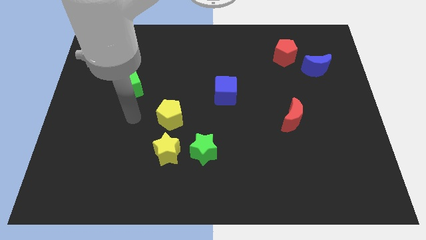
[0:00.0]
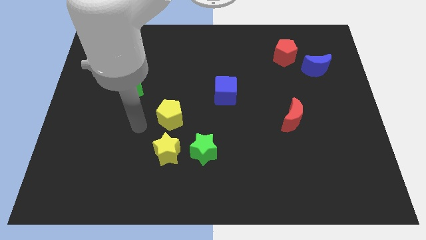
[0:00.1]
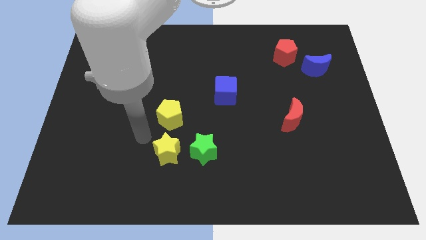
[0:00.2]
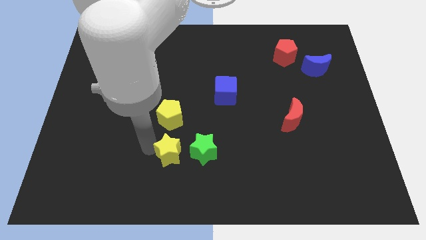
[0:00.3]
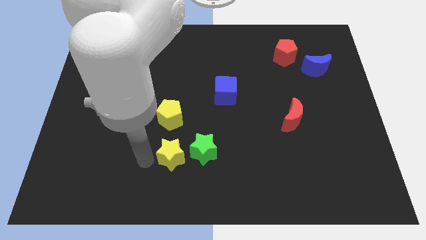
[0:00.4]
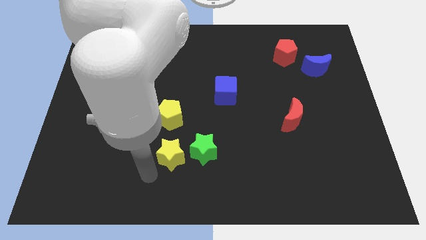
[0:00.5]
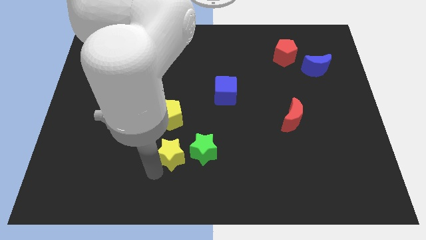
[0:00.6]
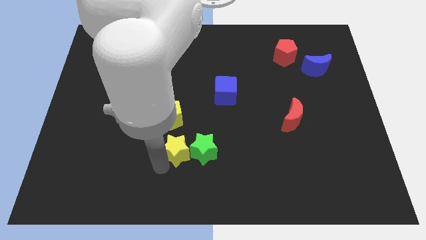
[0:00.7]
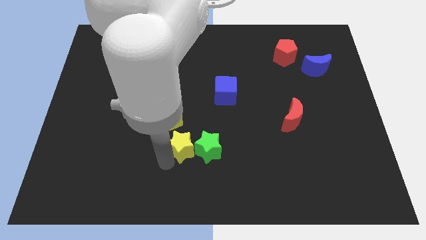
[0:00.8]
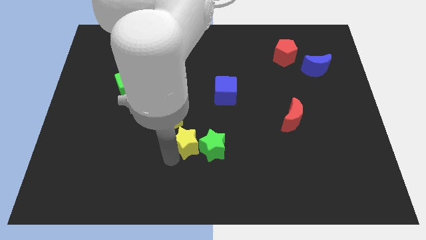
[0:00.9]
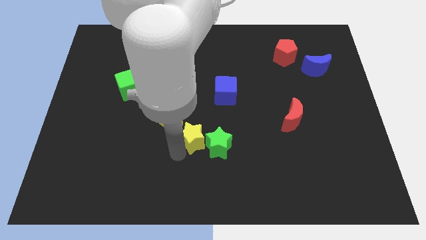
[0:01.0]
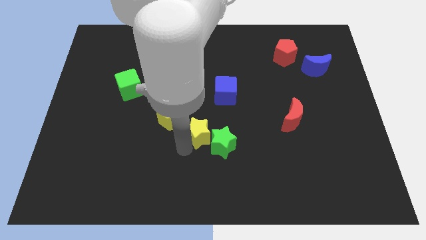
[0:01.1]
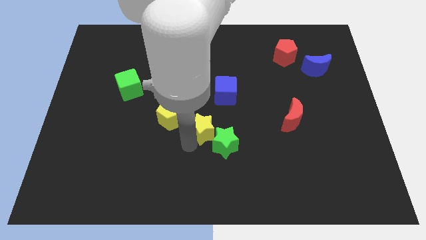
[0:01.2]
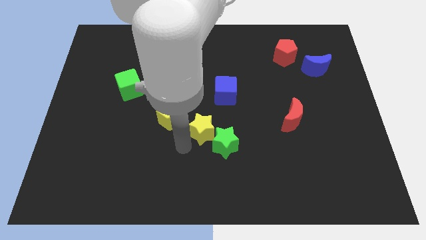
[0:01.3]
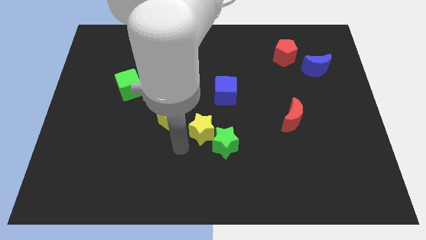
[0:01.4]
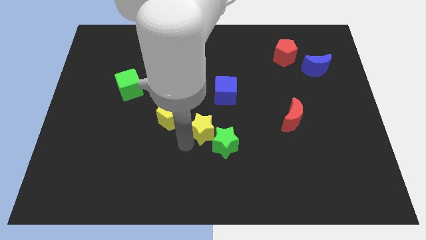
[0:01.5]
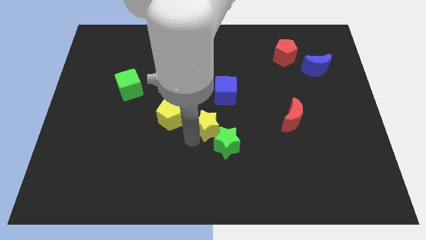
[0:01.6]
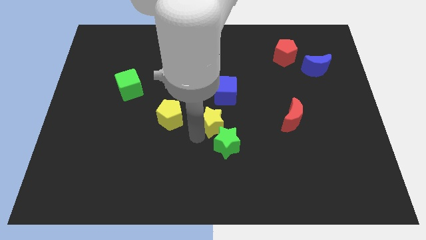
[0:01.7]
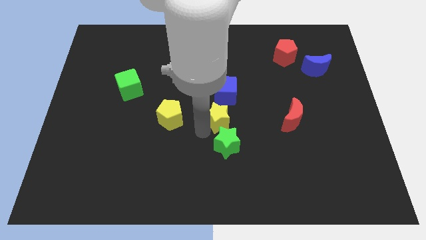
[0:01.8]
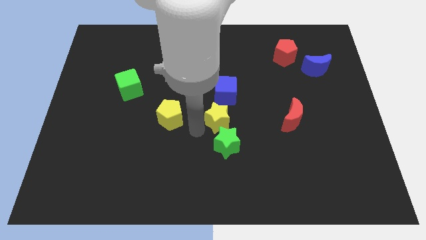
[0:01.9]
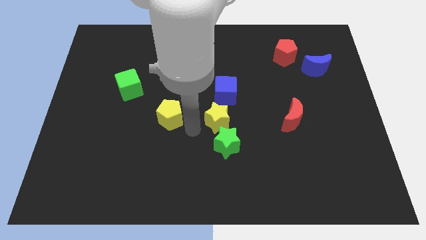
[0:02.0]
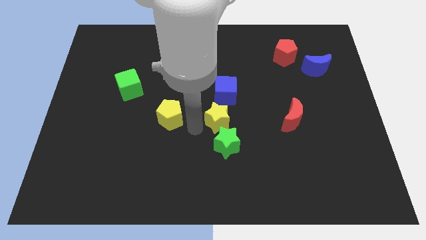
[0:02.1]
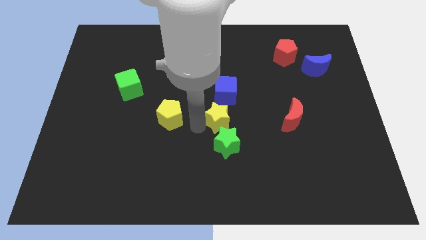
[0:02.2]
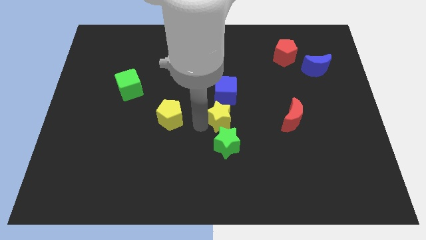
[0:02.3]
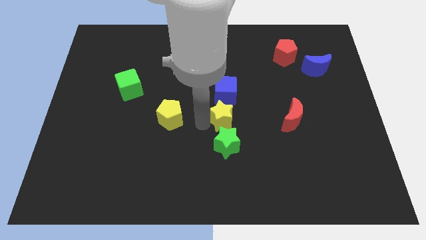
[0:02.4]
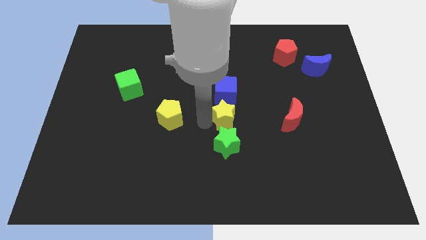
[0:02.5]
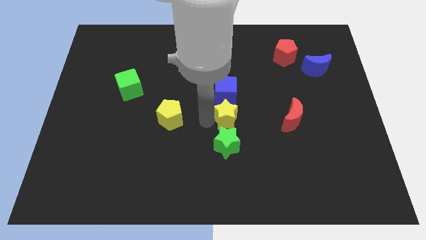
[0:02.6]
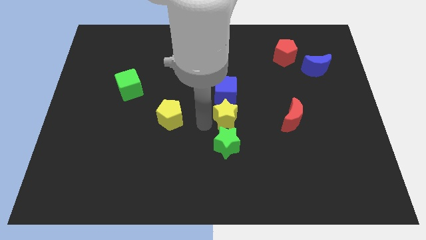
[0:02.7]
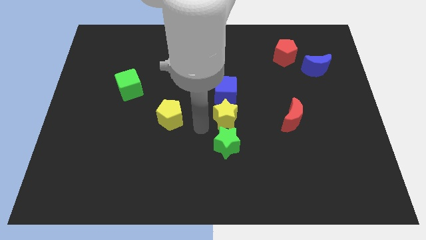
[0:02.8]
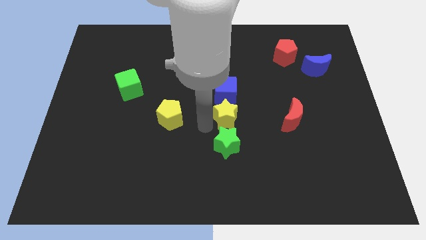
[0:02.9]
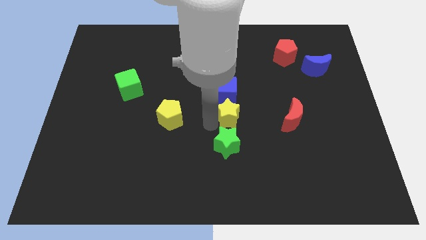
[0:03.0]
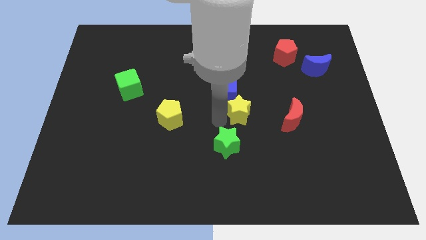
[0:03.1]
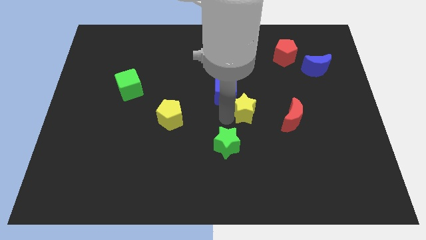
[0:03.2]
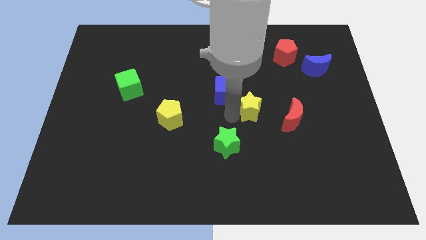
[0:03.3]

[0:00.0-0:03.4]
push the yellow star diagonally up and to the right

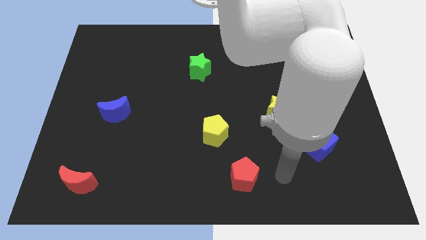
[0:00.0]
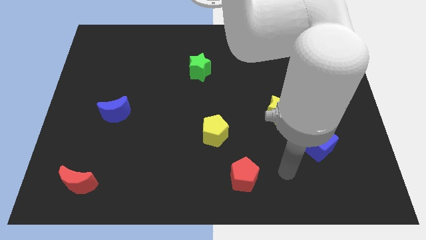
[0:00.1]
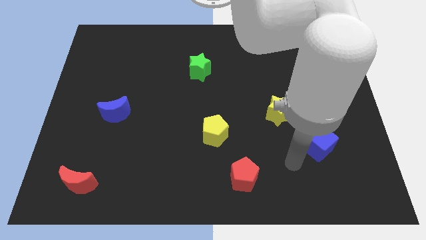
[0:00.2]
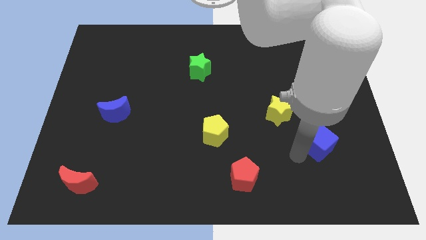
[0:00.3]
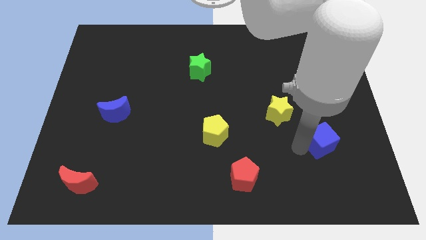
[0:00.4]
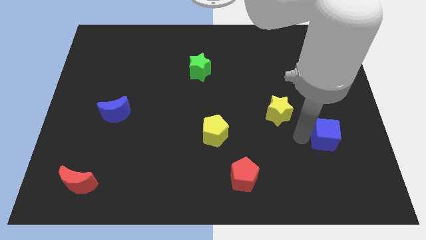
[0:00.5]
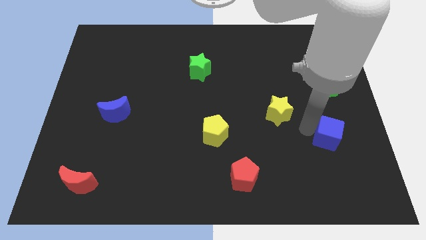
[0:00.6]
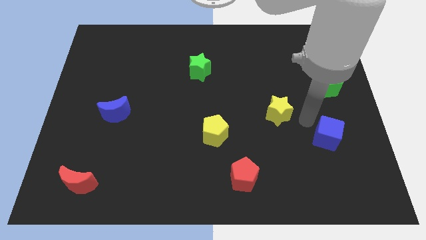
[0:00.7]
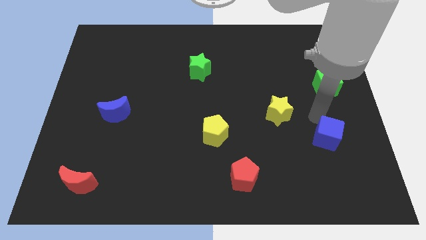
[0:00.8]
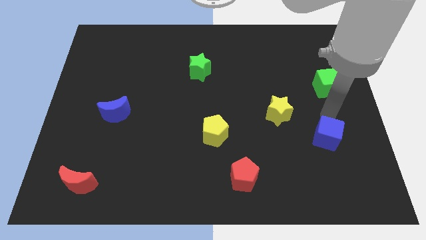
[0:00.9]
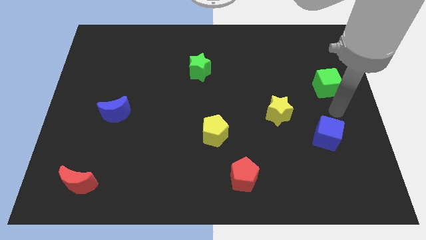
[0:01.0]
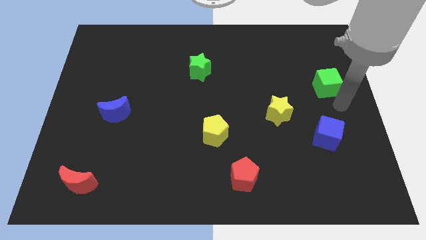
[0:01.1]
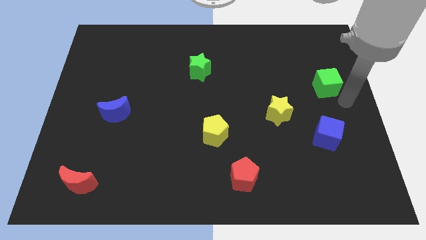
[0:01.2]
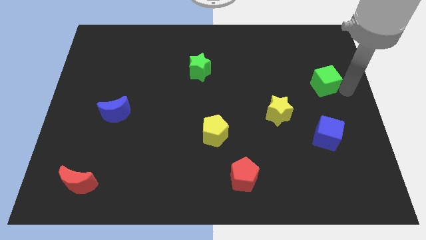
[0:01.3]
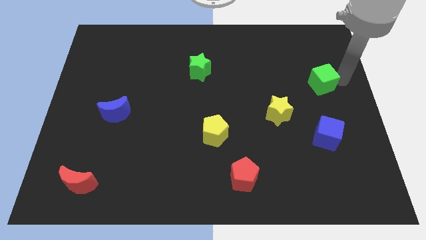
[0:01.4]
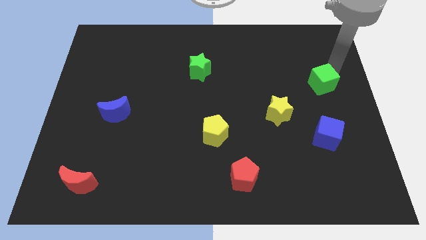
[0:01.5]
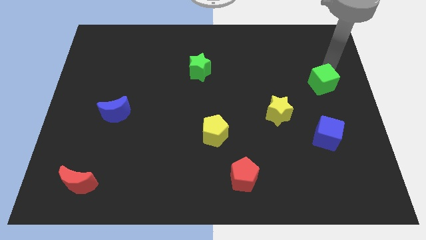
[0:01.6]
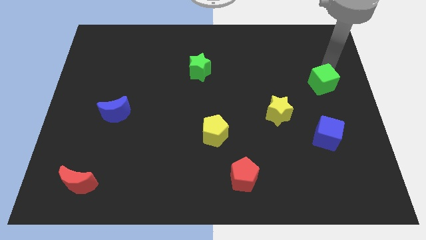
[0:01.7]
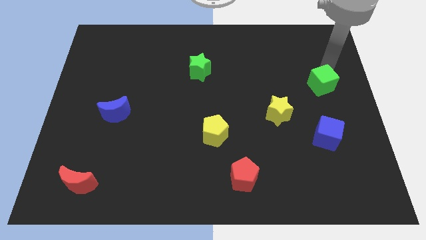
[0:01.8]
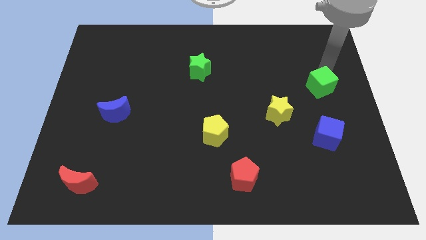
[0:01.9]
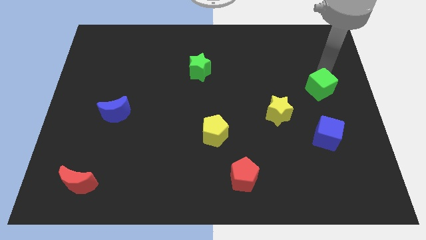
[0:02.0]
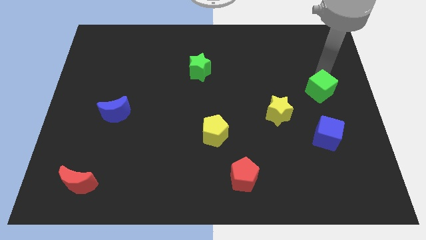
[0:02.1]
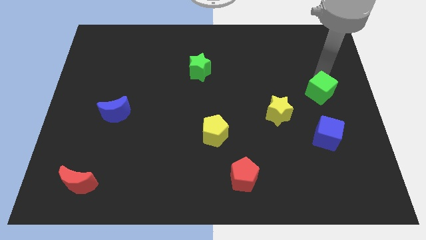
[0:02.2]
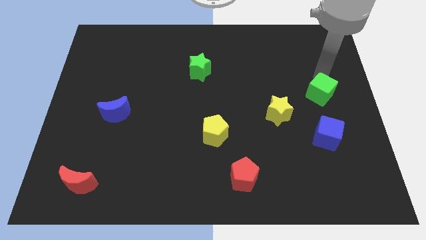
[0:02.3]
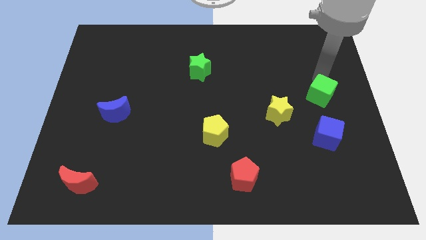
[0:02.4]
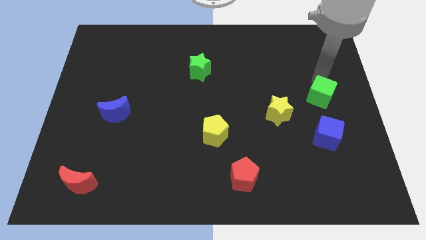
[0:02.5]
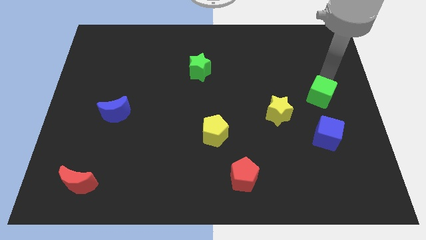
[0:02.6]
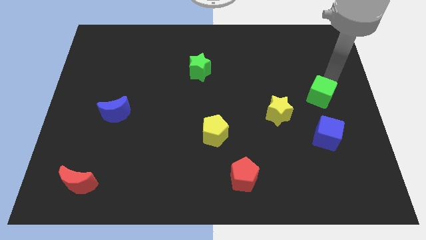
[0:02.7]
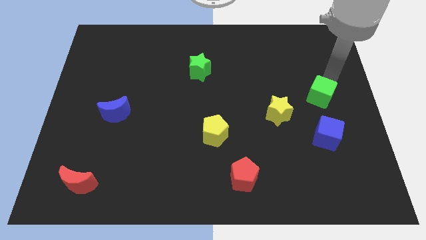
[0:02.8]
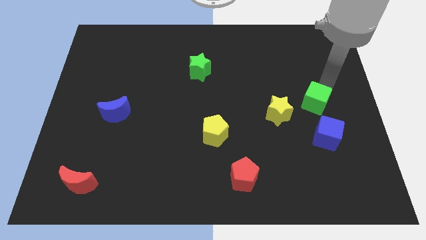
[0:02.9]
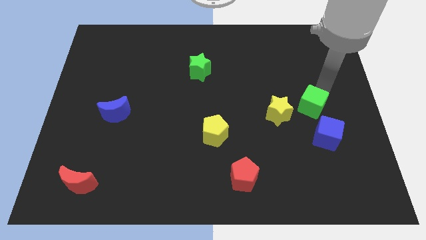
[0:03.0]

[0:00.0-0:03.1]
slide the green cube a little bit down and to the left

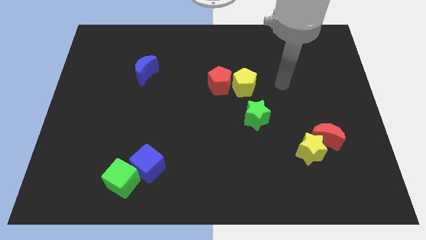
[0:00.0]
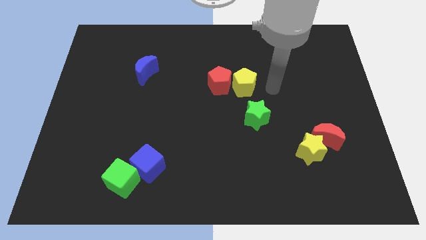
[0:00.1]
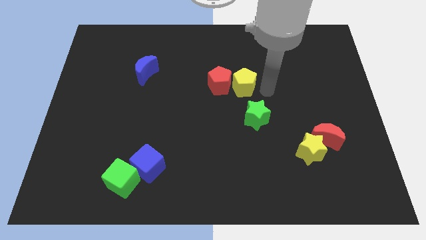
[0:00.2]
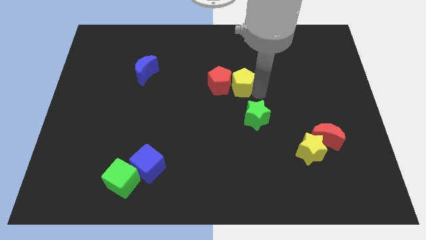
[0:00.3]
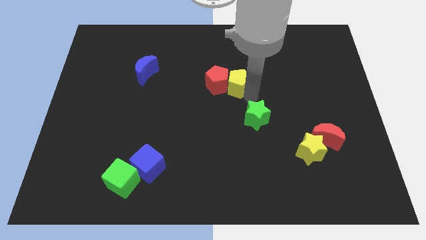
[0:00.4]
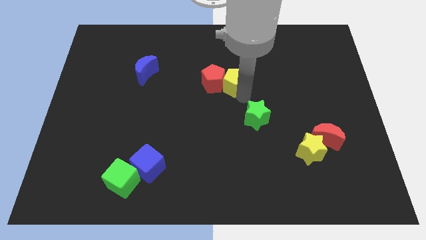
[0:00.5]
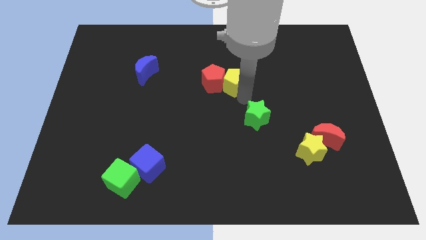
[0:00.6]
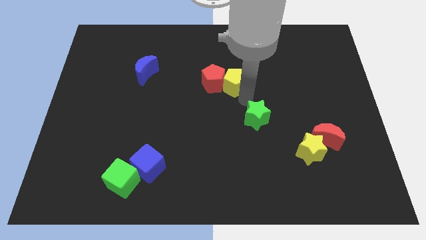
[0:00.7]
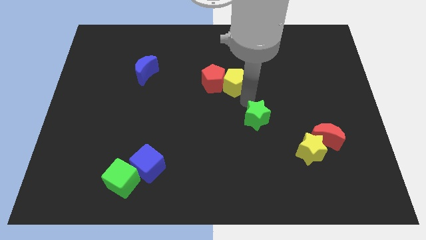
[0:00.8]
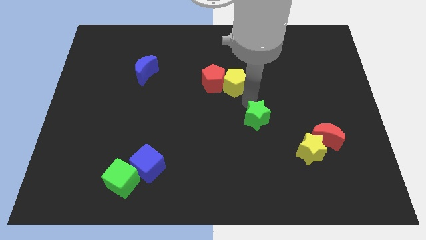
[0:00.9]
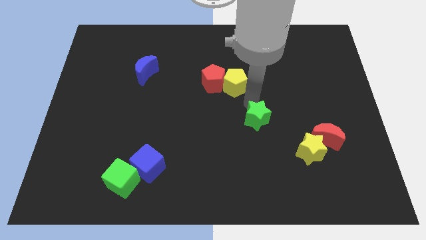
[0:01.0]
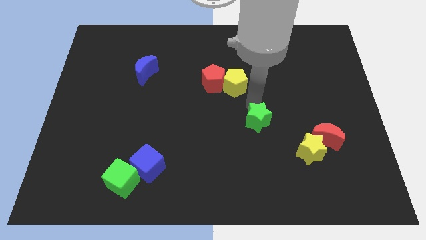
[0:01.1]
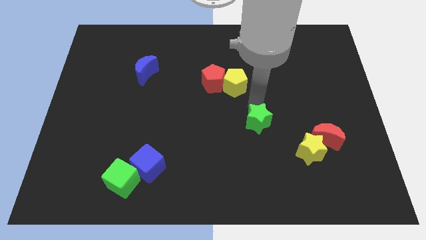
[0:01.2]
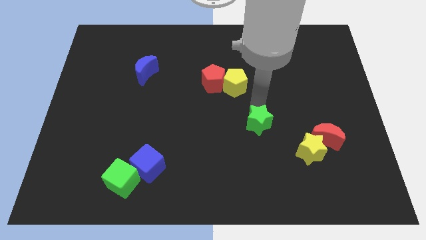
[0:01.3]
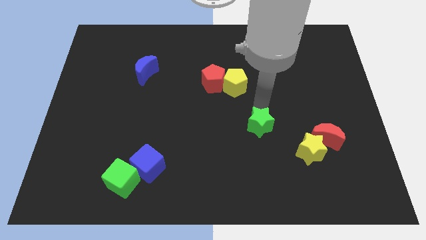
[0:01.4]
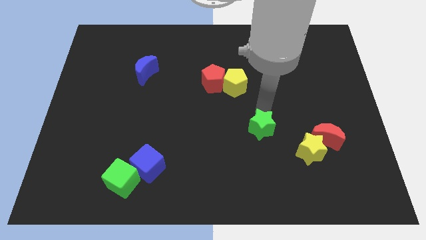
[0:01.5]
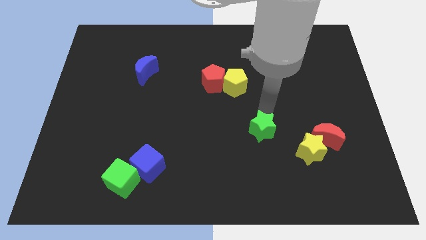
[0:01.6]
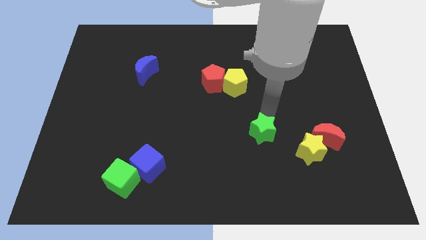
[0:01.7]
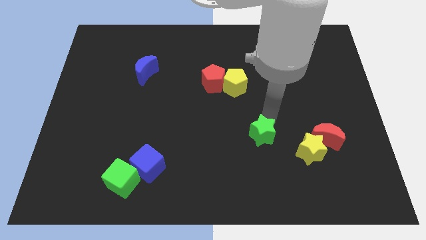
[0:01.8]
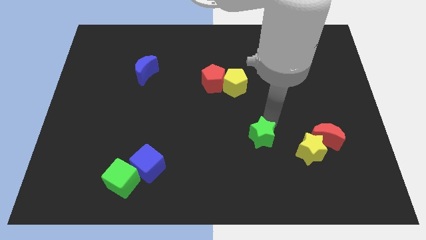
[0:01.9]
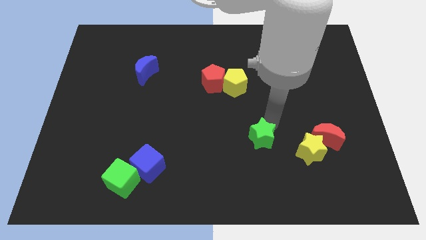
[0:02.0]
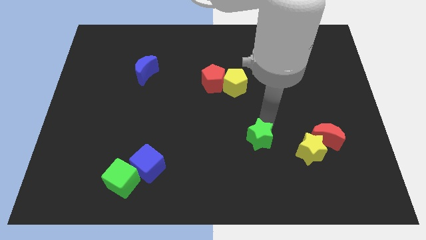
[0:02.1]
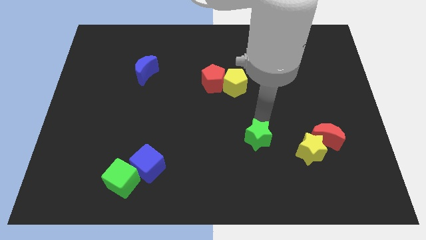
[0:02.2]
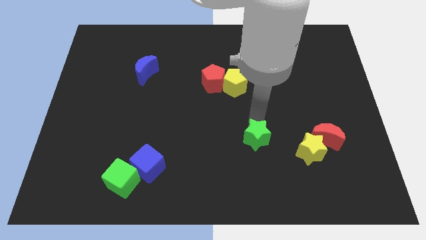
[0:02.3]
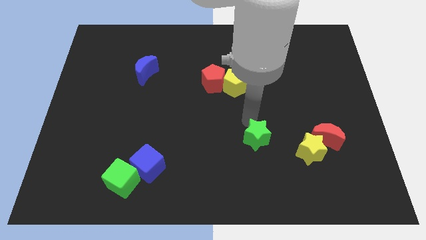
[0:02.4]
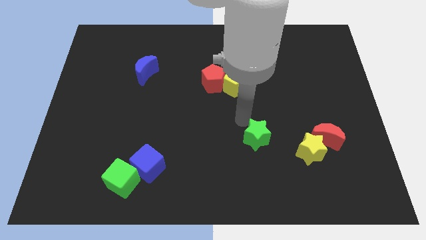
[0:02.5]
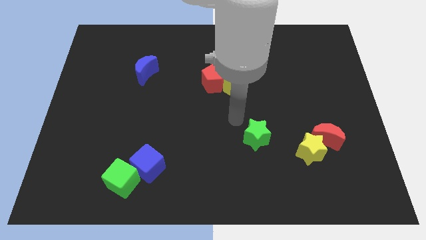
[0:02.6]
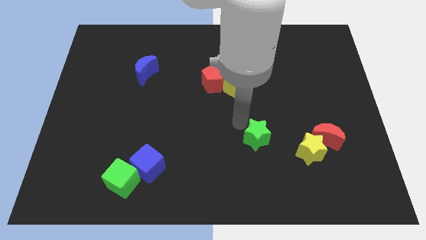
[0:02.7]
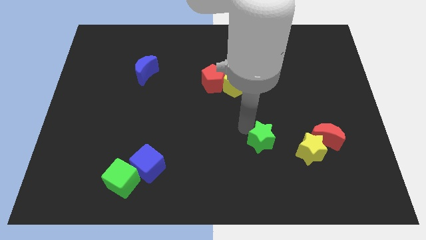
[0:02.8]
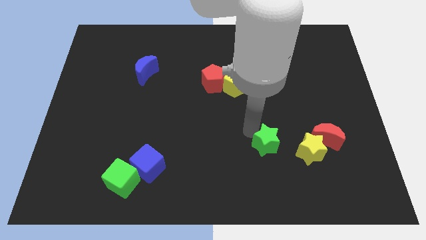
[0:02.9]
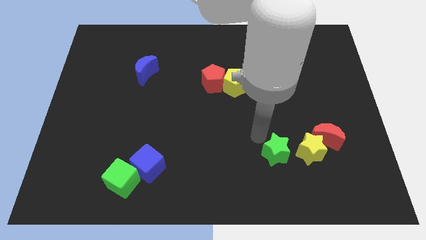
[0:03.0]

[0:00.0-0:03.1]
slide the green star somewhat down and to the right diagonally
